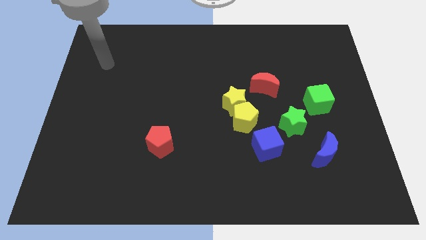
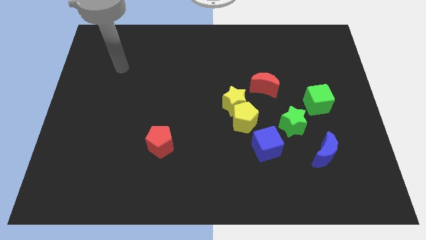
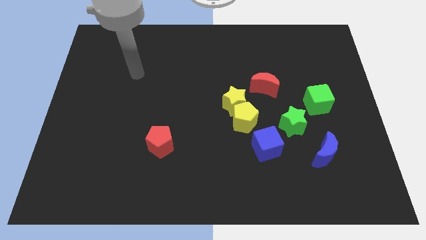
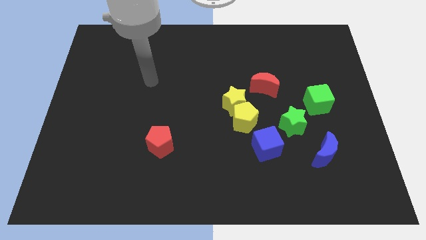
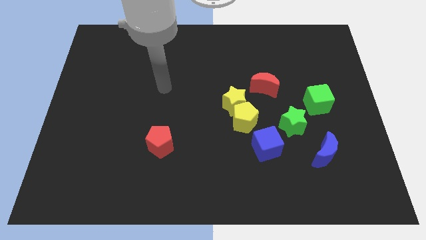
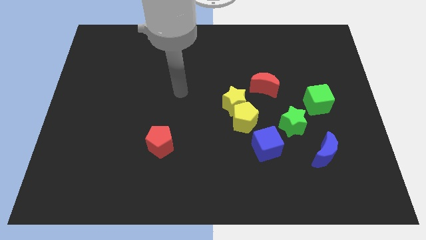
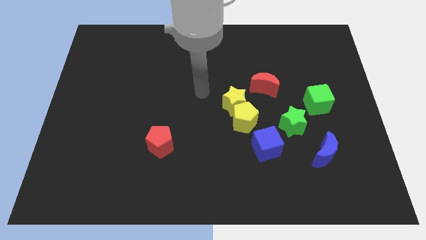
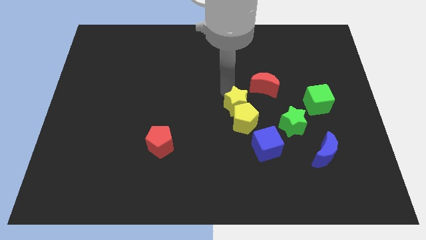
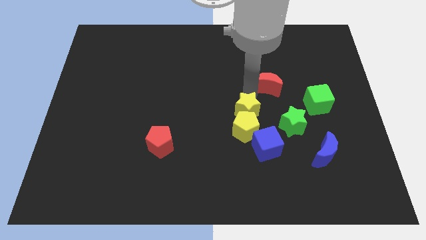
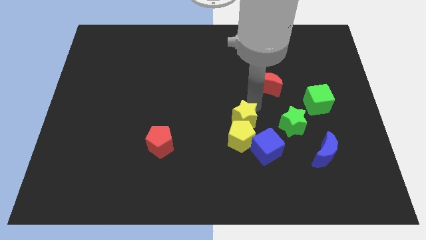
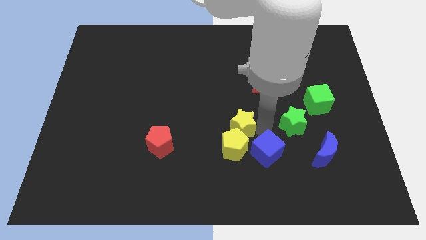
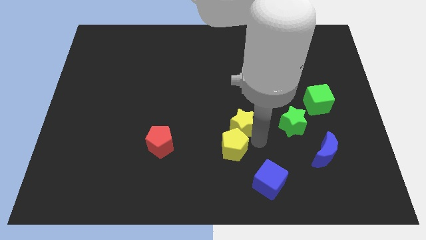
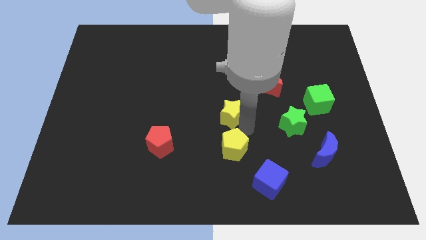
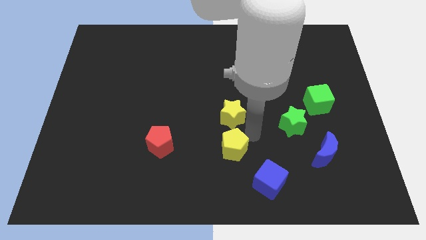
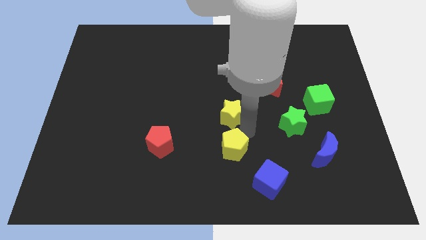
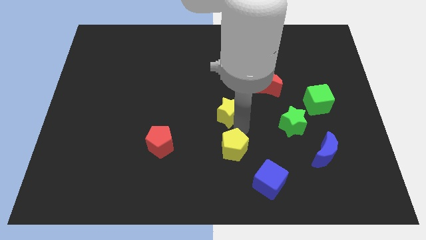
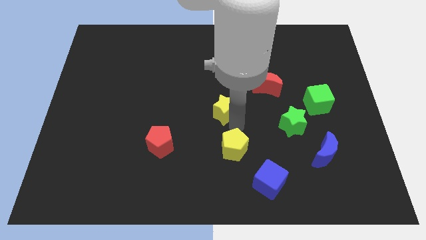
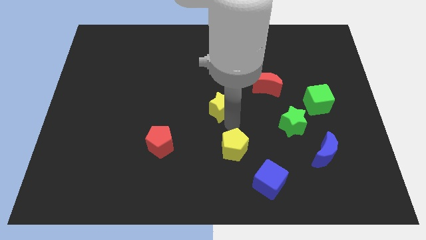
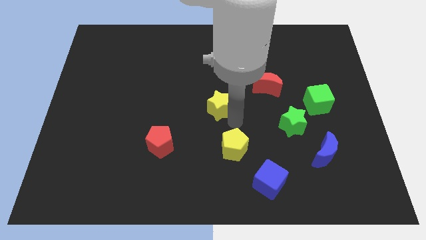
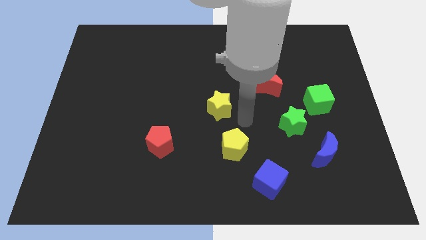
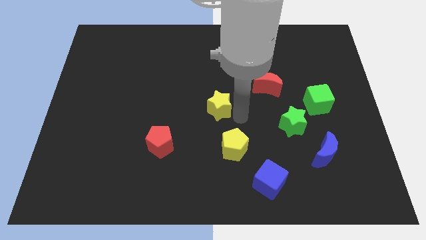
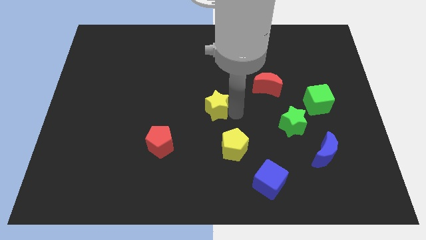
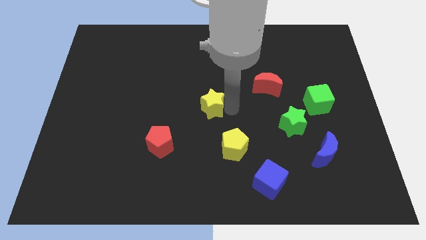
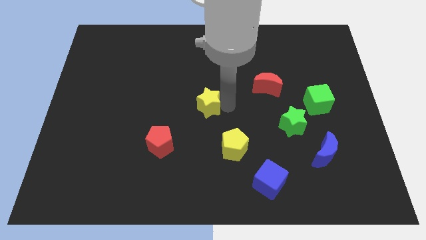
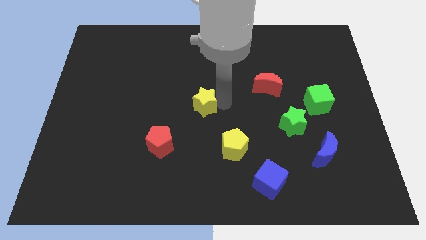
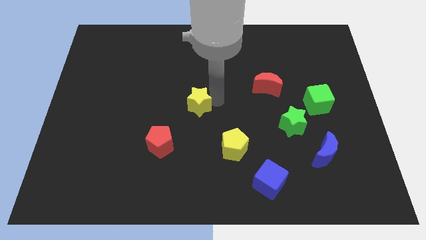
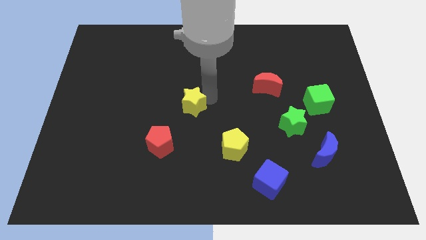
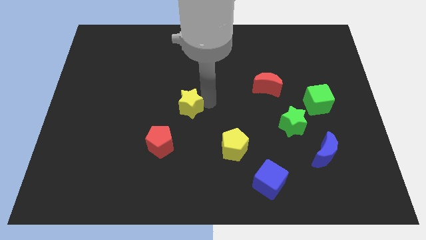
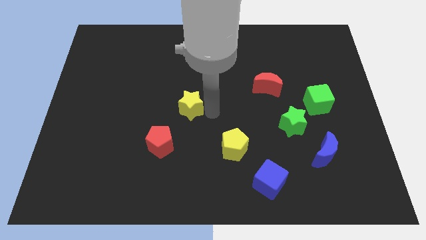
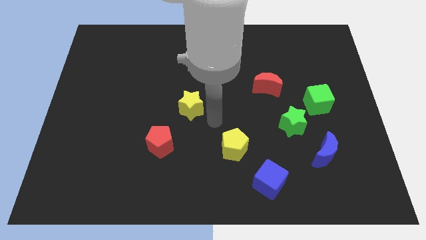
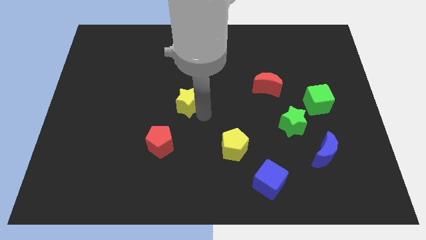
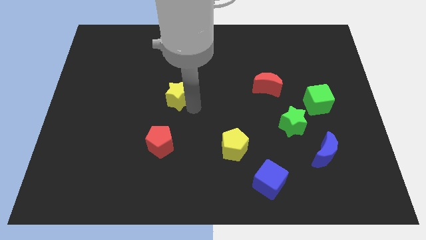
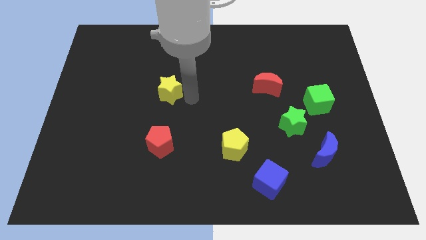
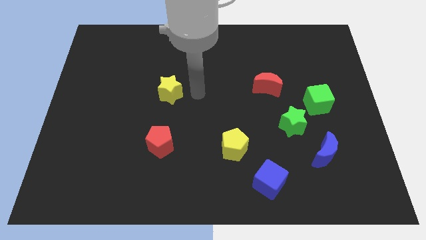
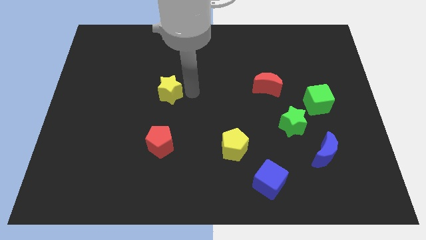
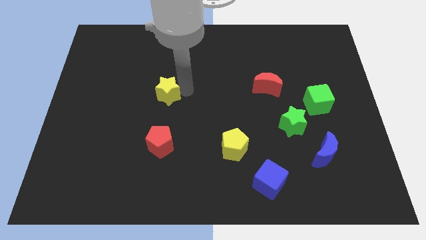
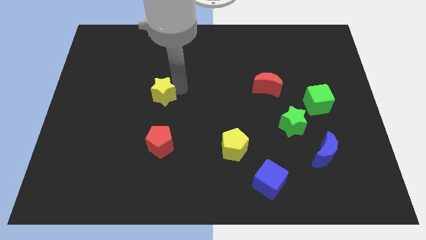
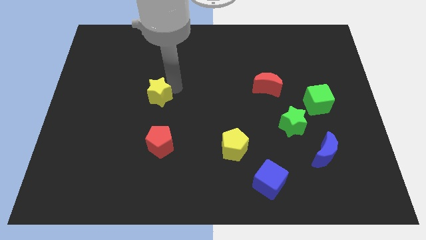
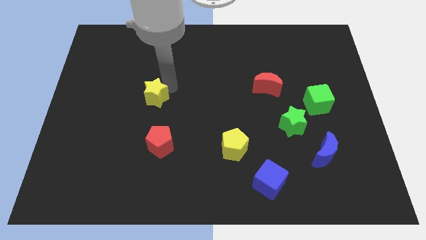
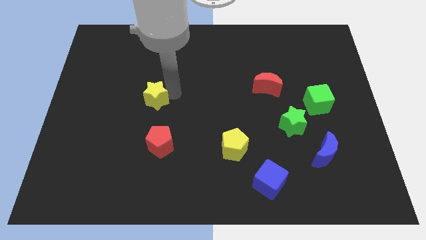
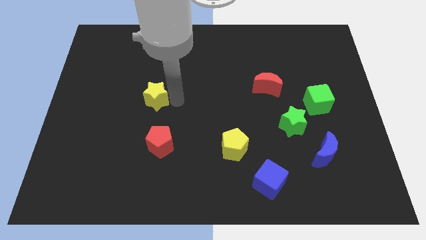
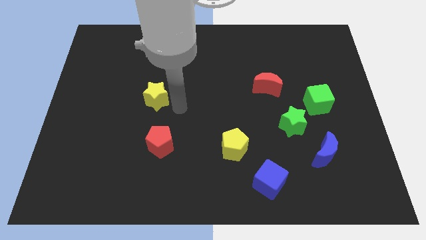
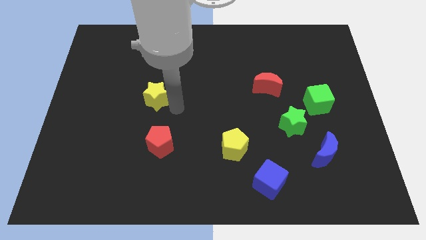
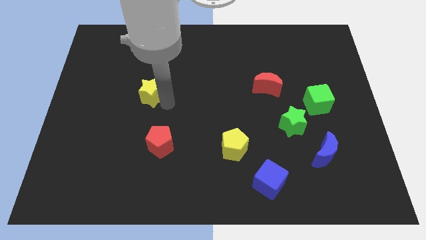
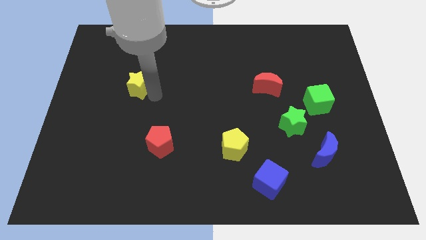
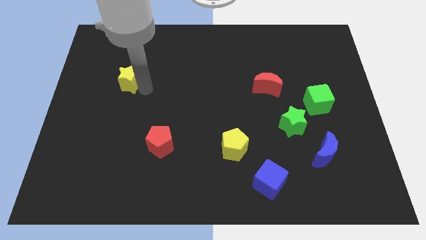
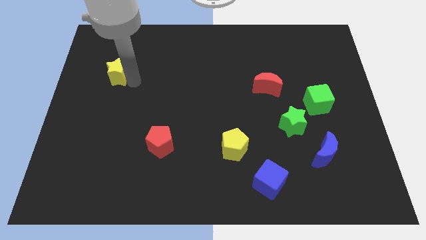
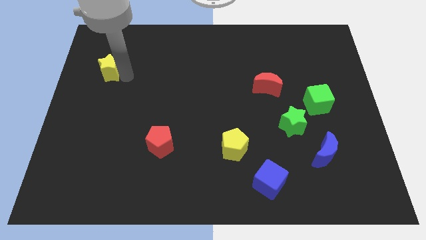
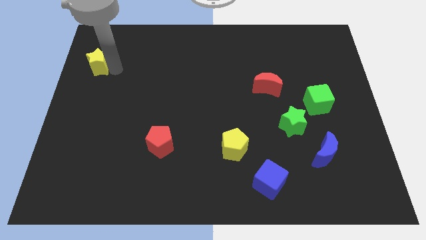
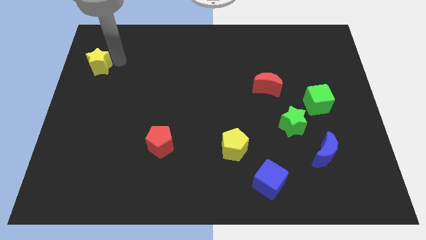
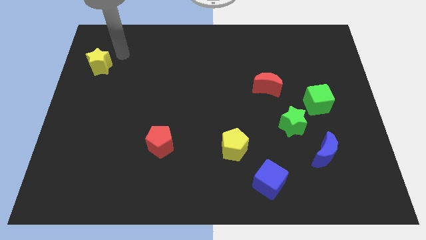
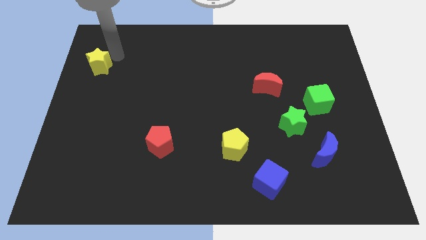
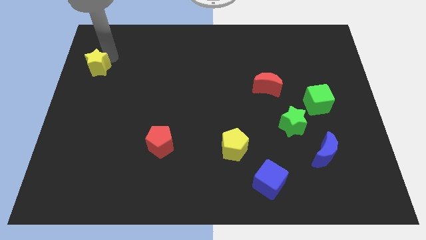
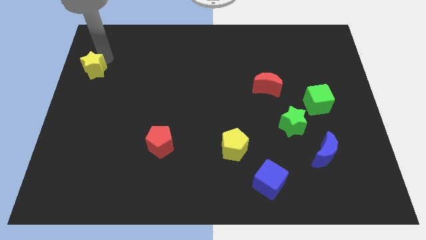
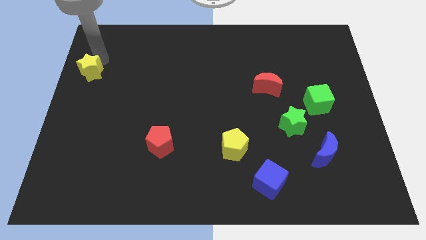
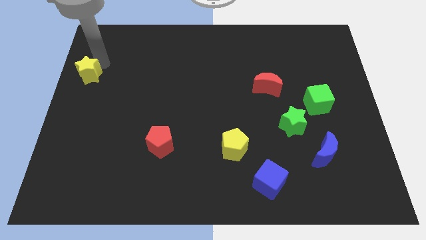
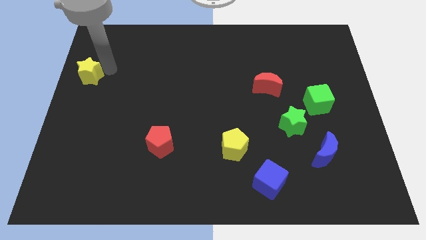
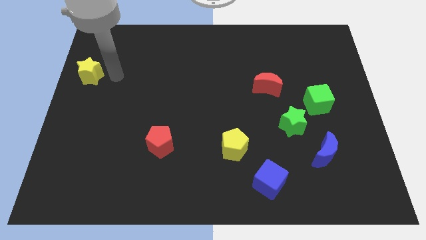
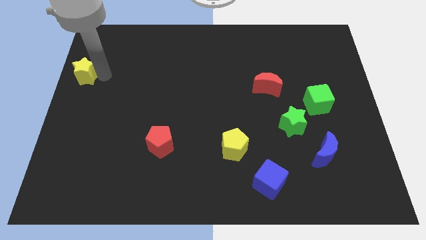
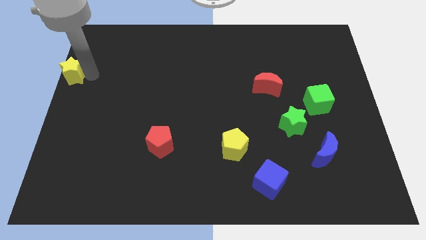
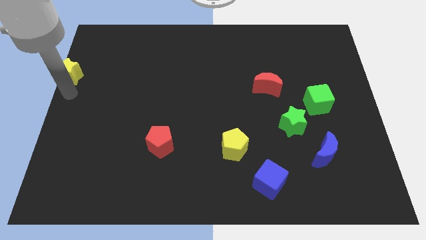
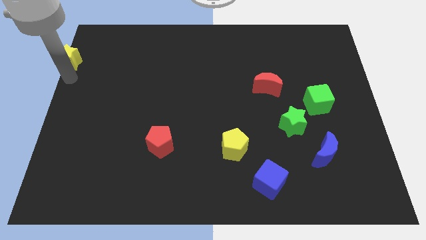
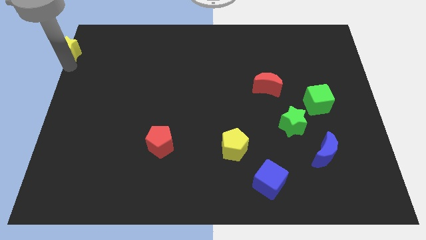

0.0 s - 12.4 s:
move the yellow star to the top left
